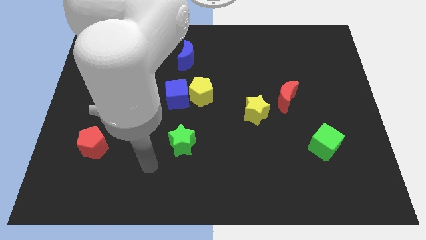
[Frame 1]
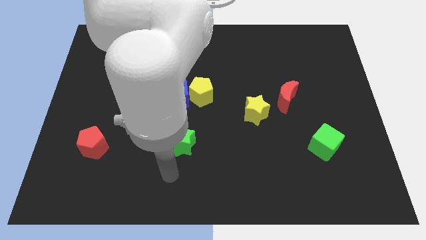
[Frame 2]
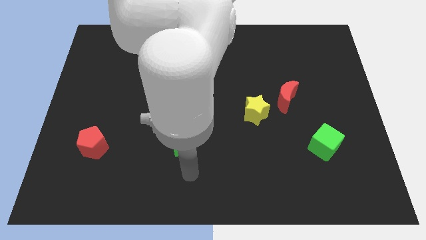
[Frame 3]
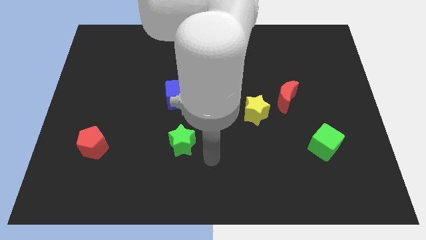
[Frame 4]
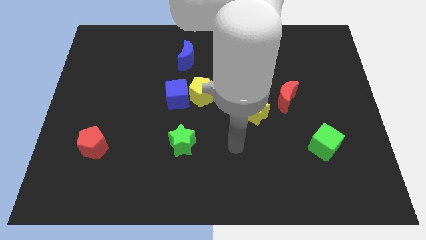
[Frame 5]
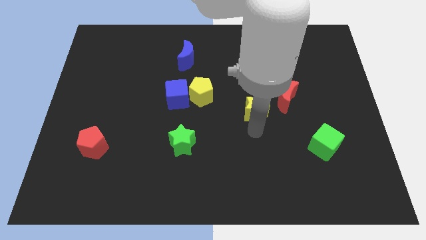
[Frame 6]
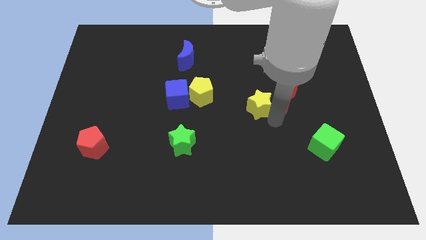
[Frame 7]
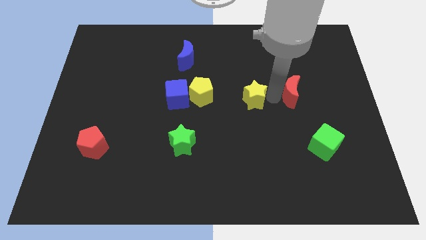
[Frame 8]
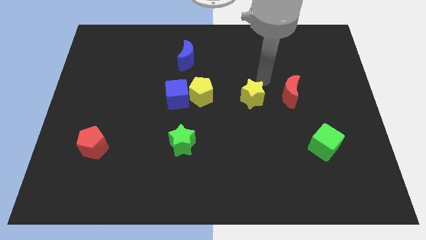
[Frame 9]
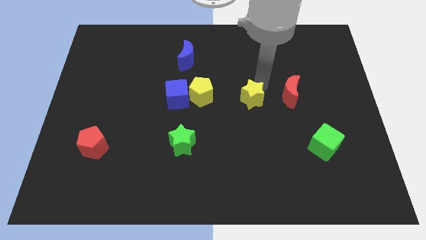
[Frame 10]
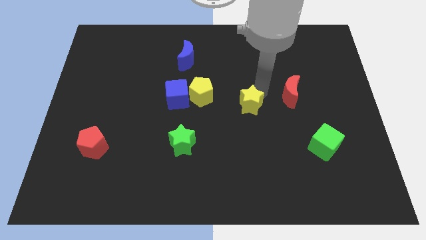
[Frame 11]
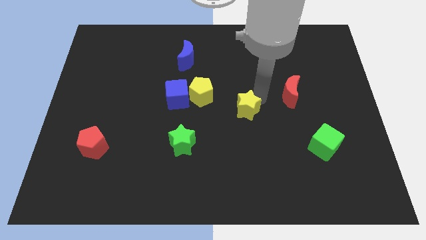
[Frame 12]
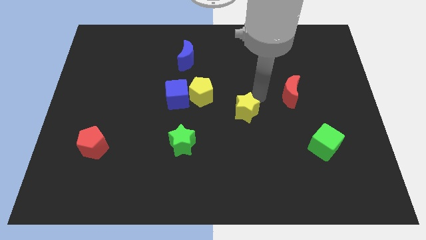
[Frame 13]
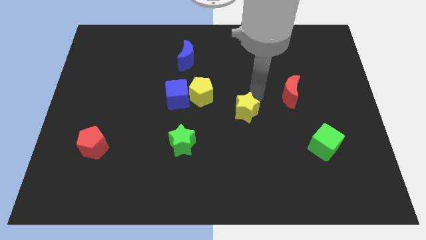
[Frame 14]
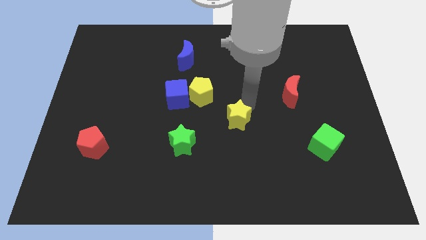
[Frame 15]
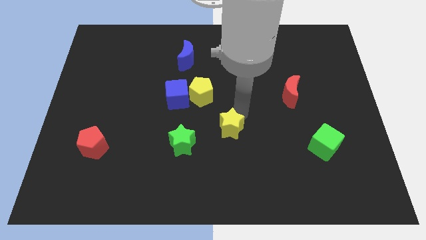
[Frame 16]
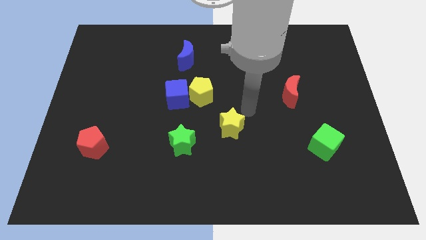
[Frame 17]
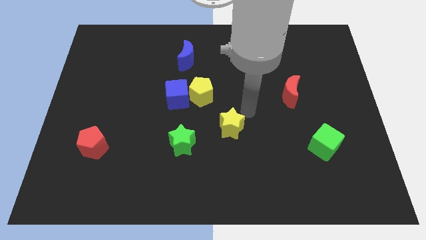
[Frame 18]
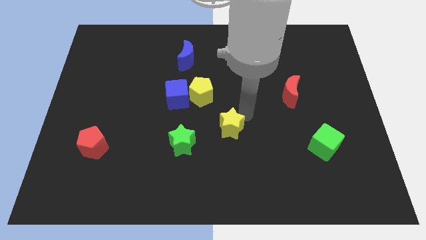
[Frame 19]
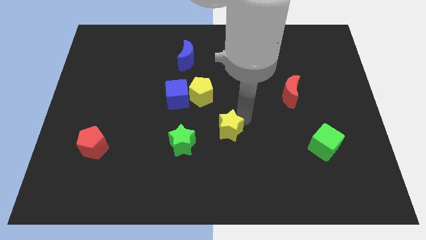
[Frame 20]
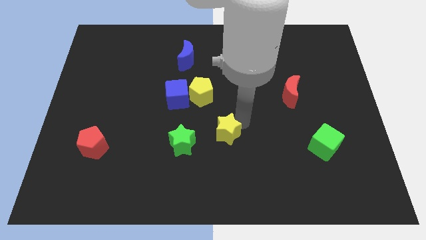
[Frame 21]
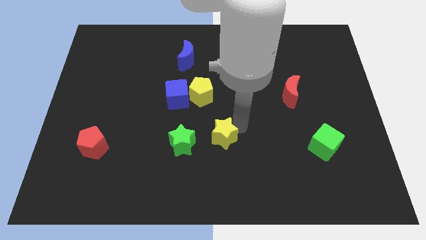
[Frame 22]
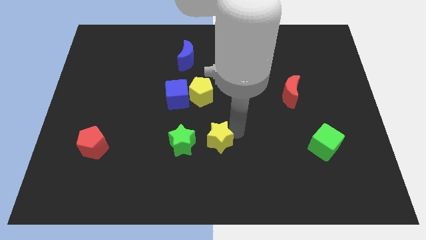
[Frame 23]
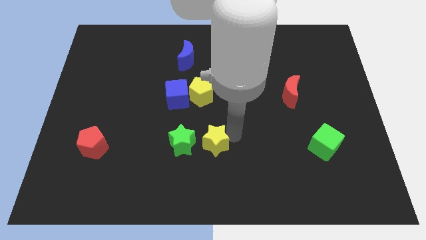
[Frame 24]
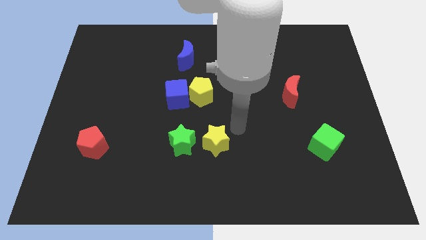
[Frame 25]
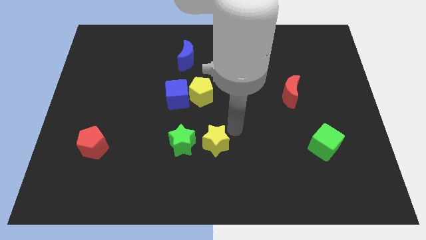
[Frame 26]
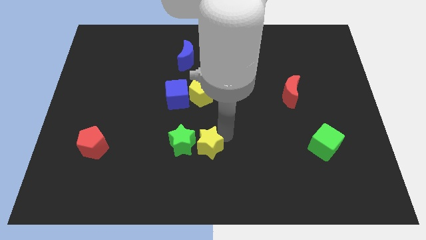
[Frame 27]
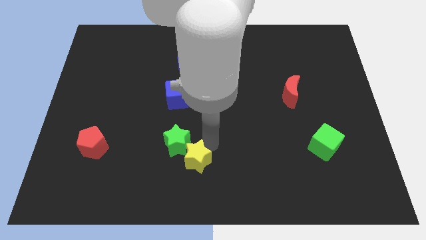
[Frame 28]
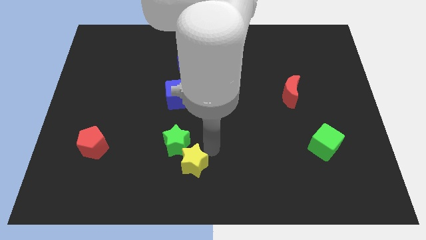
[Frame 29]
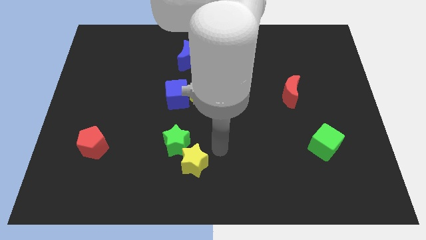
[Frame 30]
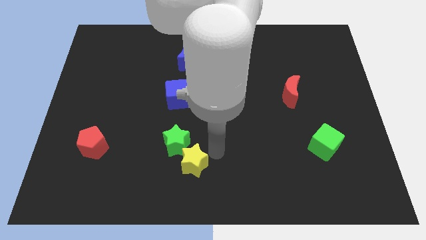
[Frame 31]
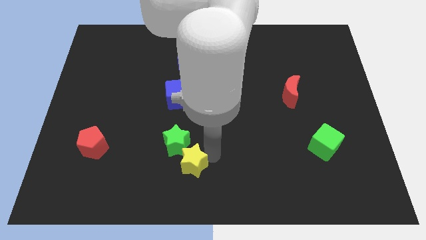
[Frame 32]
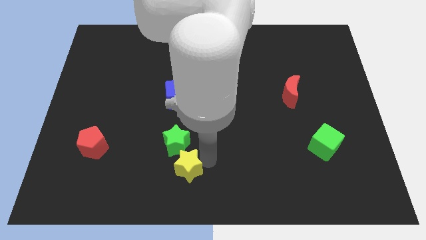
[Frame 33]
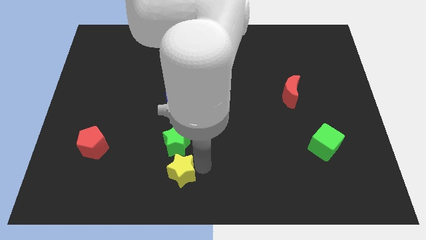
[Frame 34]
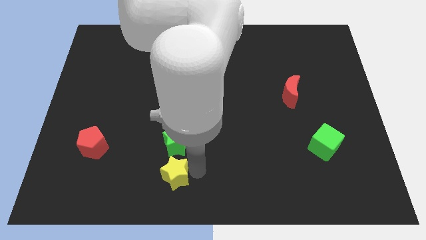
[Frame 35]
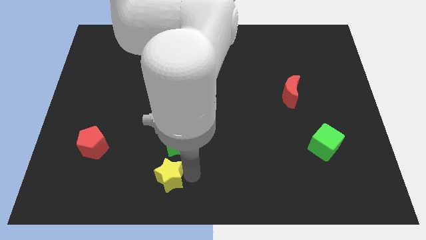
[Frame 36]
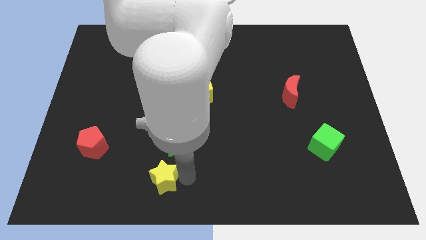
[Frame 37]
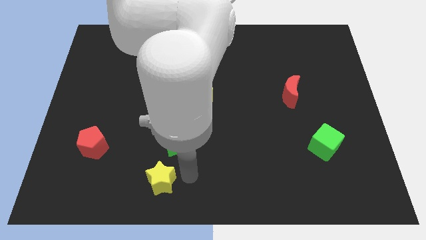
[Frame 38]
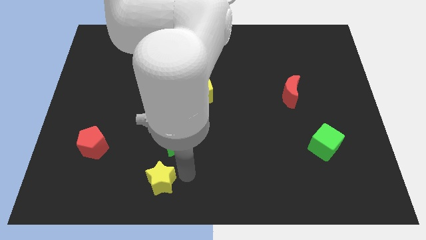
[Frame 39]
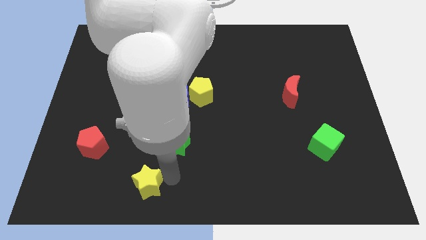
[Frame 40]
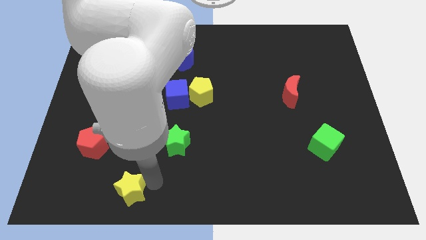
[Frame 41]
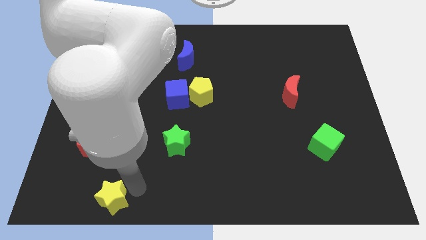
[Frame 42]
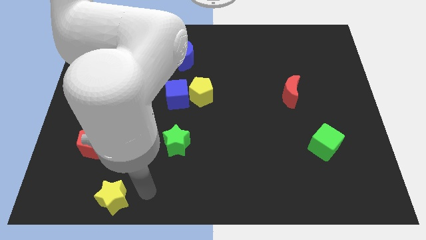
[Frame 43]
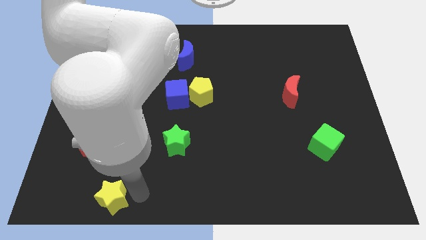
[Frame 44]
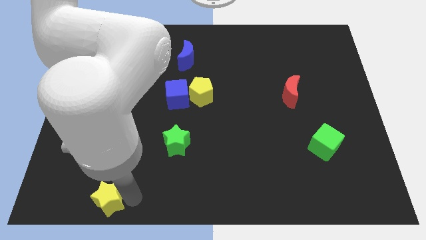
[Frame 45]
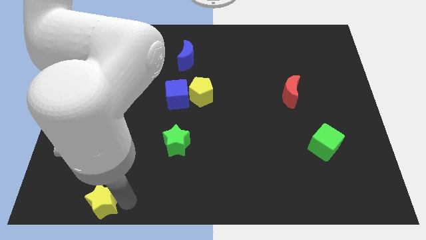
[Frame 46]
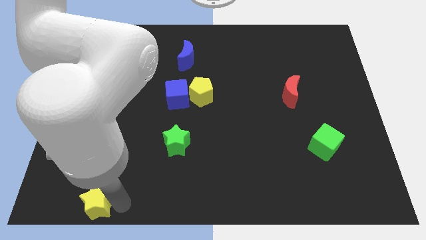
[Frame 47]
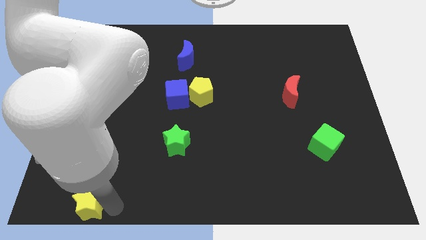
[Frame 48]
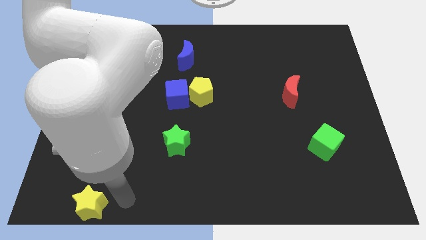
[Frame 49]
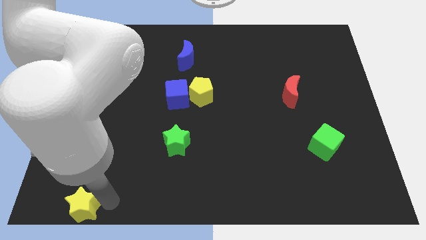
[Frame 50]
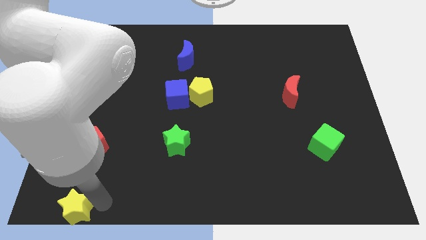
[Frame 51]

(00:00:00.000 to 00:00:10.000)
move the yellow star to the lower left corner

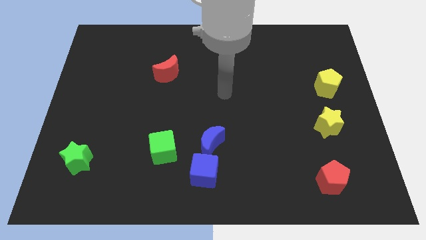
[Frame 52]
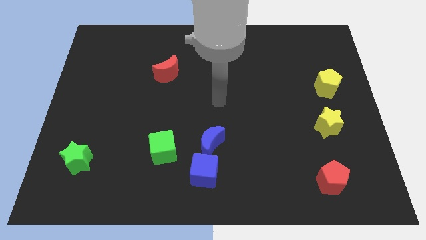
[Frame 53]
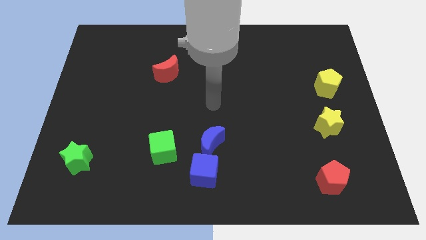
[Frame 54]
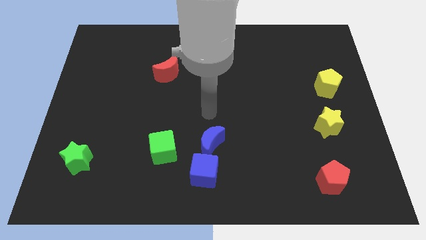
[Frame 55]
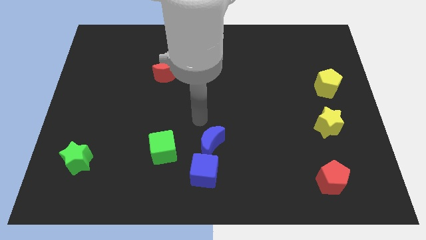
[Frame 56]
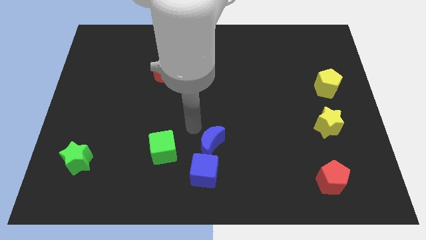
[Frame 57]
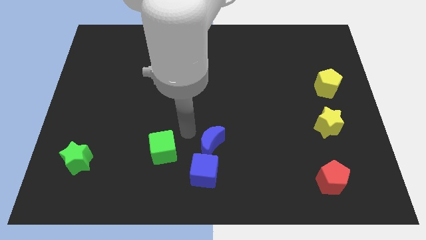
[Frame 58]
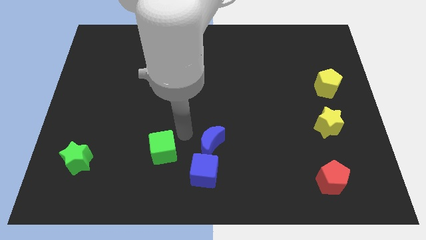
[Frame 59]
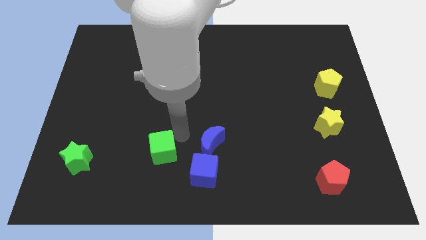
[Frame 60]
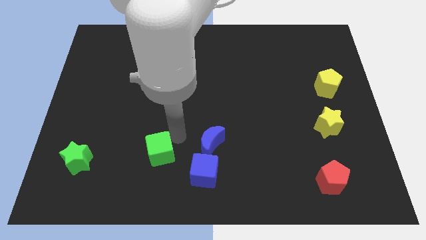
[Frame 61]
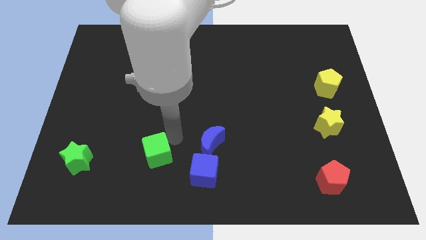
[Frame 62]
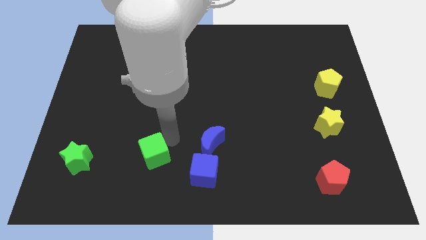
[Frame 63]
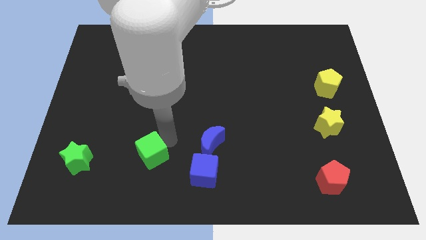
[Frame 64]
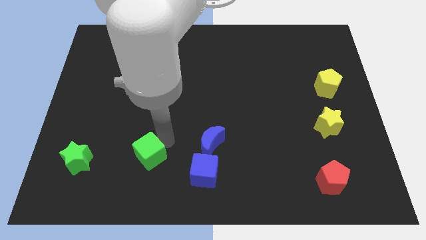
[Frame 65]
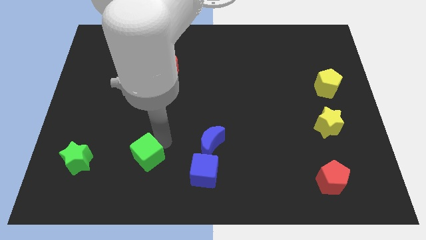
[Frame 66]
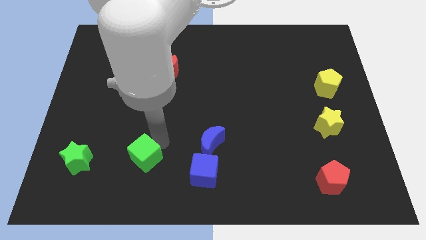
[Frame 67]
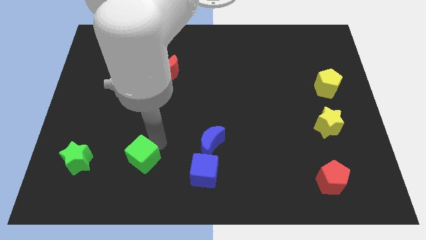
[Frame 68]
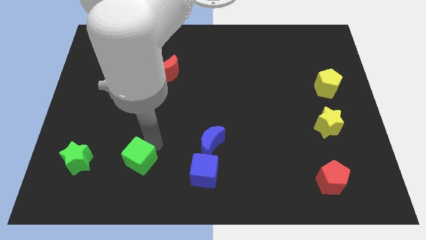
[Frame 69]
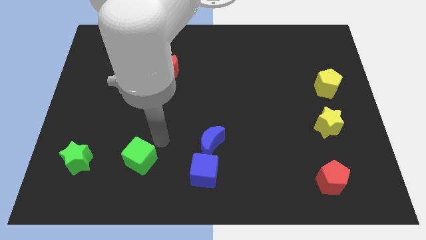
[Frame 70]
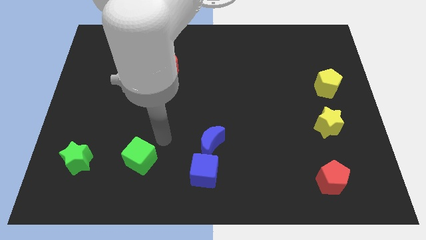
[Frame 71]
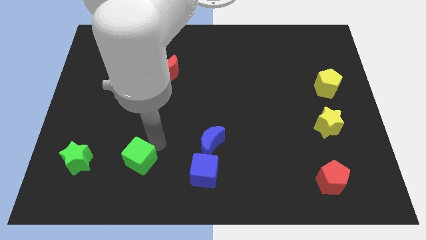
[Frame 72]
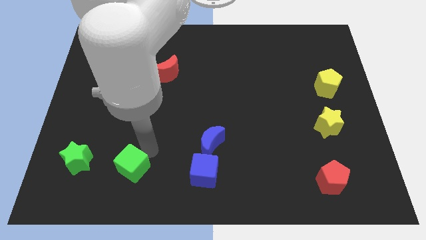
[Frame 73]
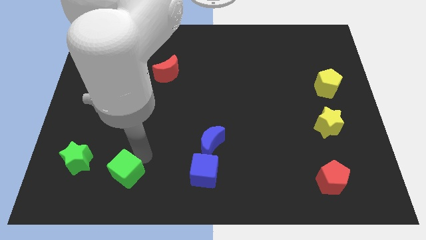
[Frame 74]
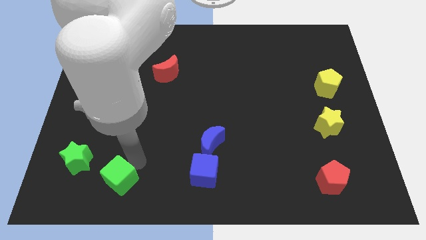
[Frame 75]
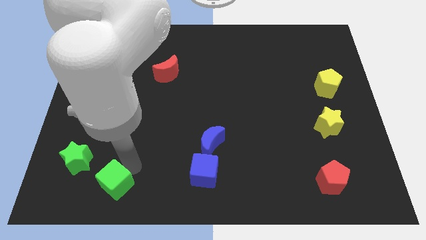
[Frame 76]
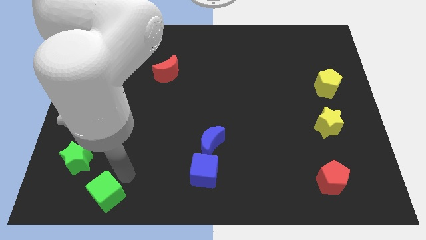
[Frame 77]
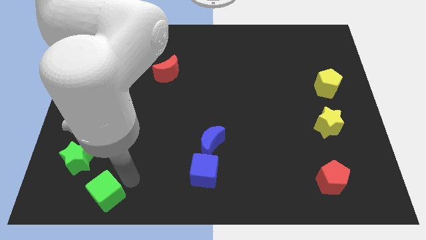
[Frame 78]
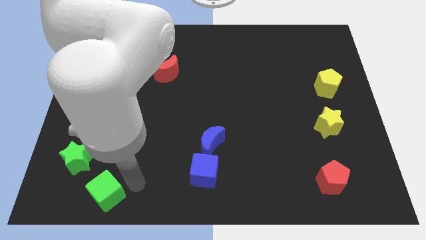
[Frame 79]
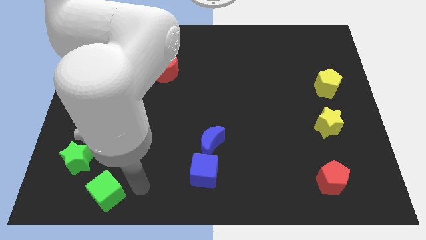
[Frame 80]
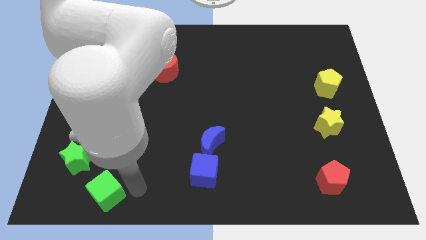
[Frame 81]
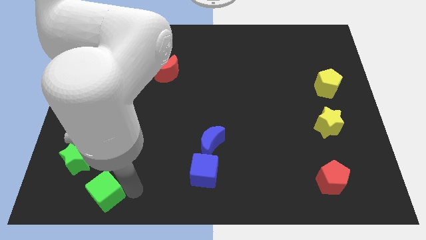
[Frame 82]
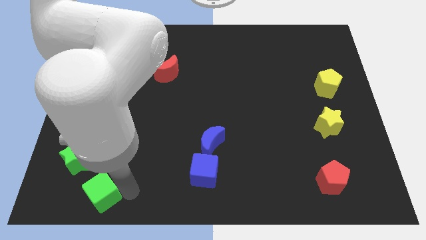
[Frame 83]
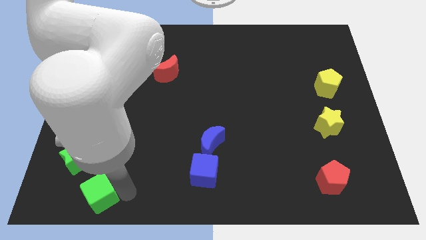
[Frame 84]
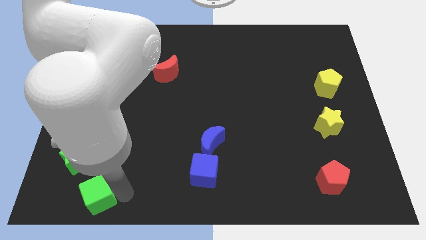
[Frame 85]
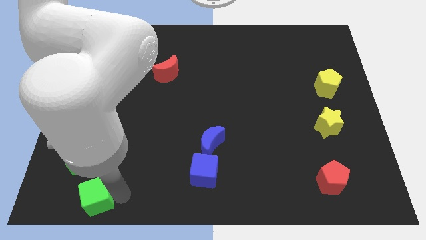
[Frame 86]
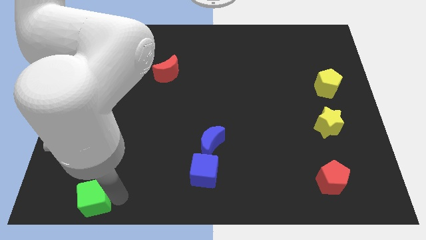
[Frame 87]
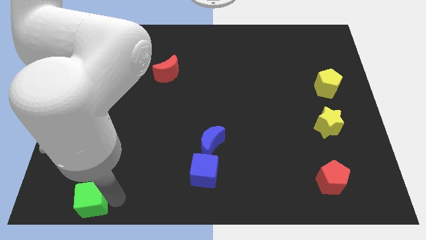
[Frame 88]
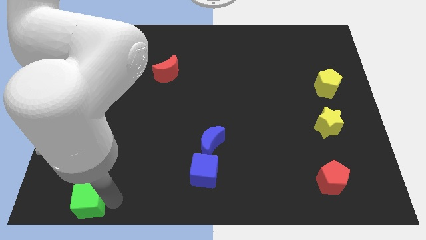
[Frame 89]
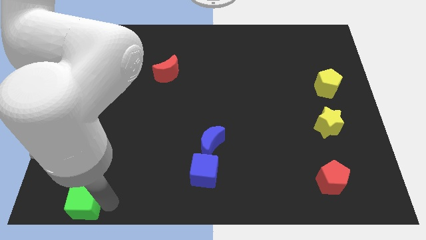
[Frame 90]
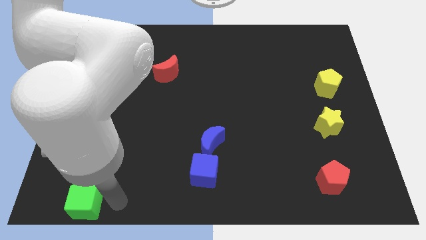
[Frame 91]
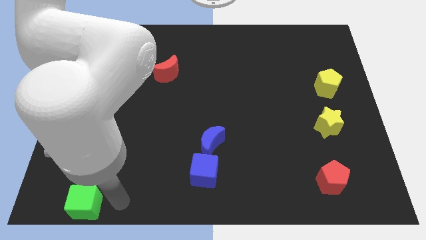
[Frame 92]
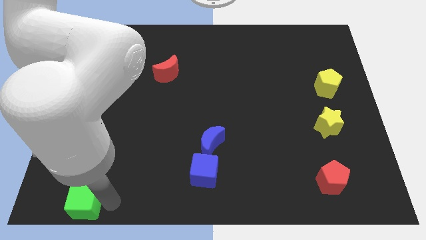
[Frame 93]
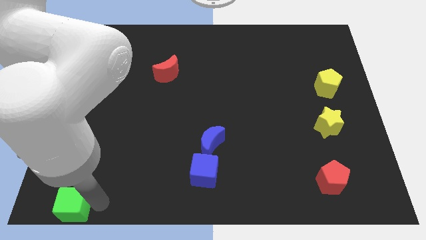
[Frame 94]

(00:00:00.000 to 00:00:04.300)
slide the green cube to the bottom left corner
